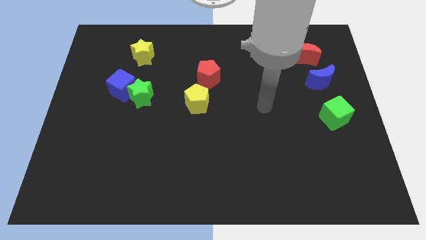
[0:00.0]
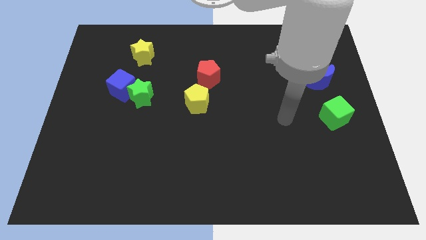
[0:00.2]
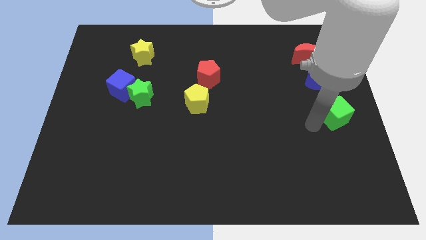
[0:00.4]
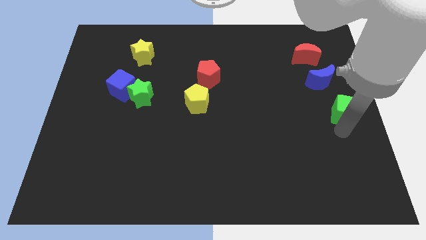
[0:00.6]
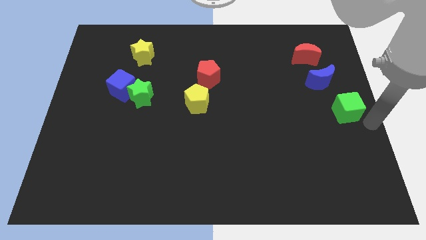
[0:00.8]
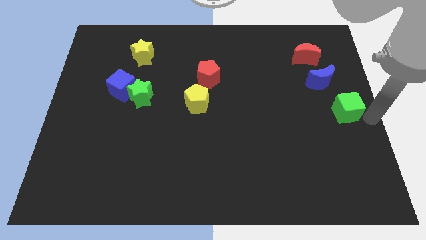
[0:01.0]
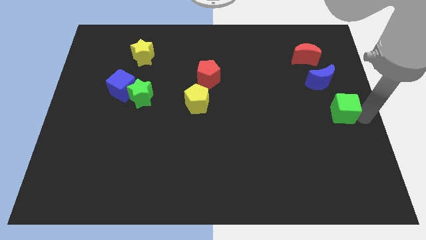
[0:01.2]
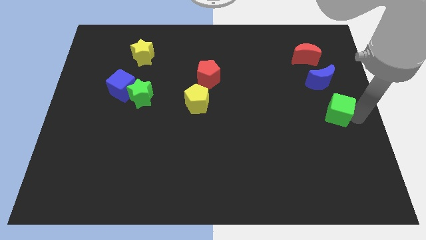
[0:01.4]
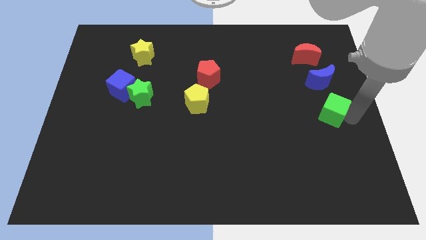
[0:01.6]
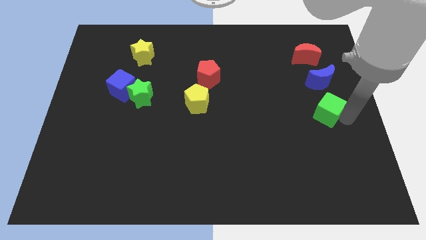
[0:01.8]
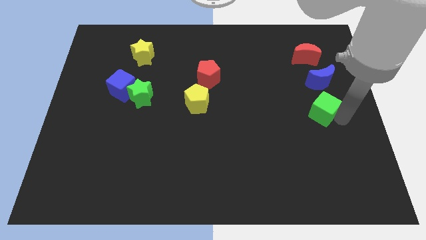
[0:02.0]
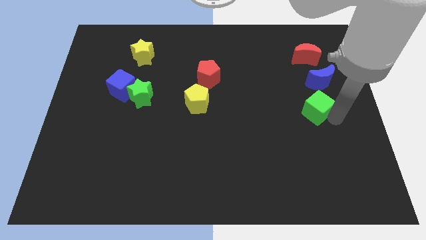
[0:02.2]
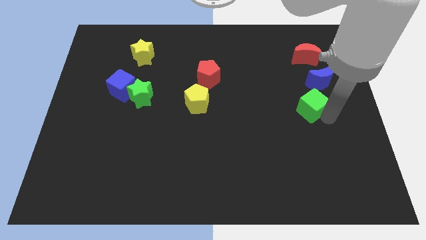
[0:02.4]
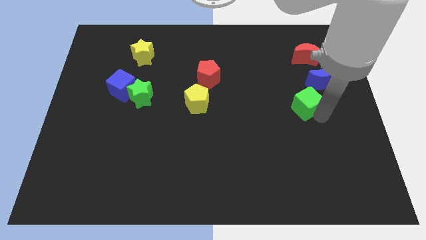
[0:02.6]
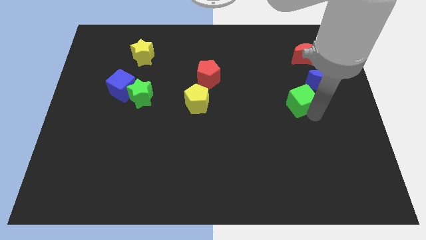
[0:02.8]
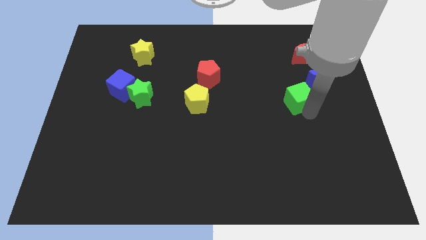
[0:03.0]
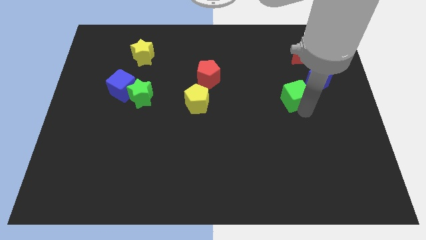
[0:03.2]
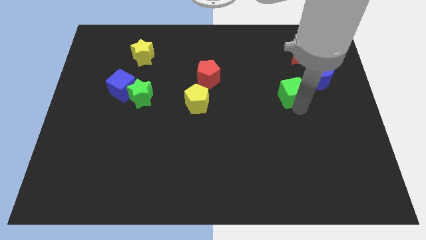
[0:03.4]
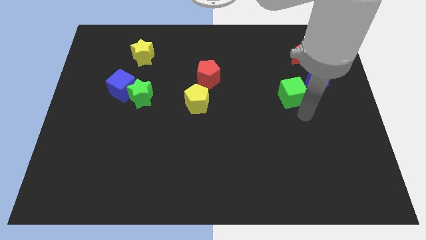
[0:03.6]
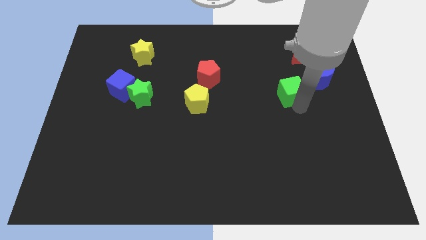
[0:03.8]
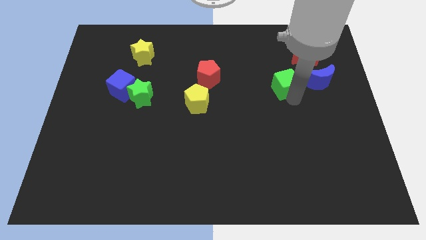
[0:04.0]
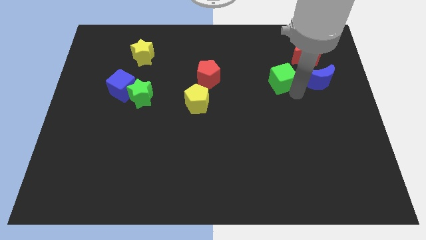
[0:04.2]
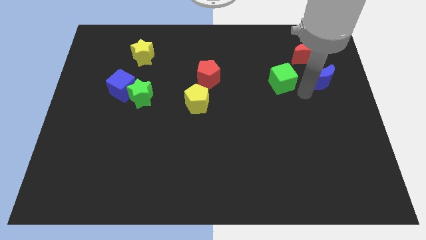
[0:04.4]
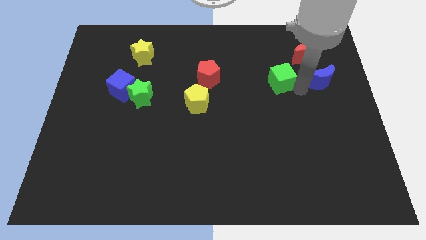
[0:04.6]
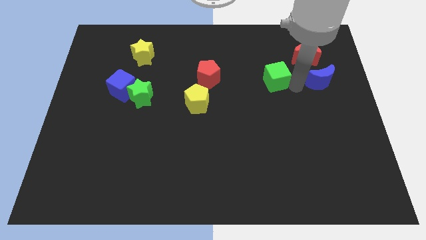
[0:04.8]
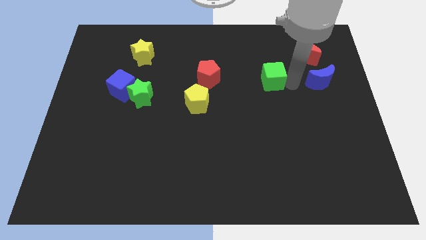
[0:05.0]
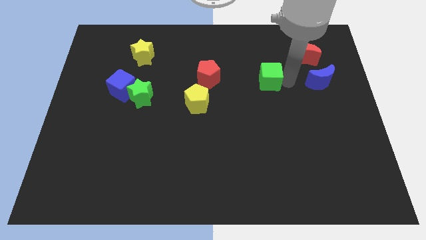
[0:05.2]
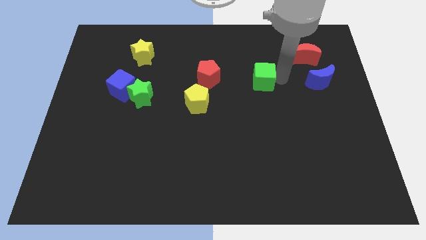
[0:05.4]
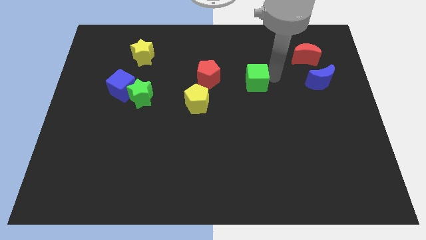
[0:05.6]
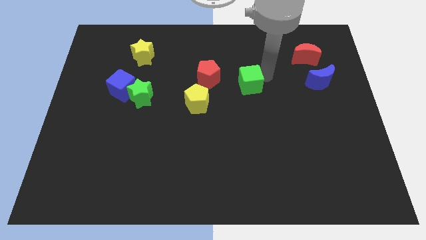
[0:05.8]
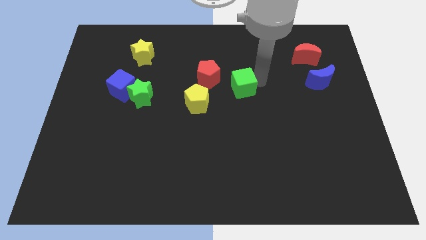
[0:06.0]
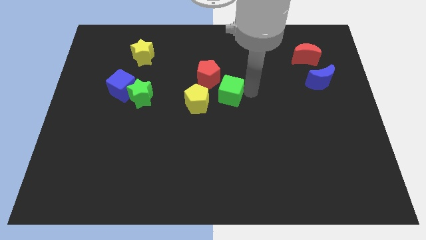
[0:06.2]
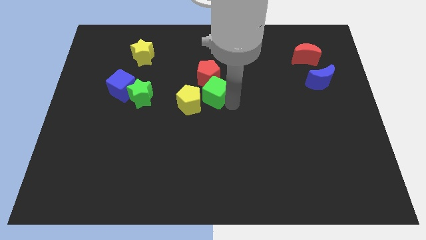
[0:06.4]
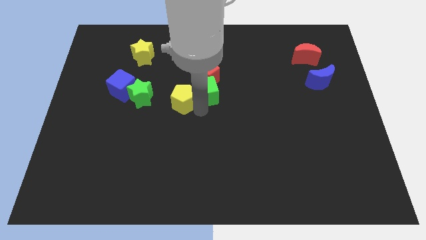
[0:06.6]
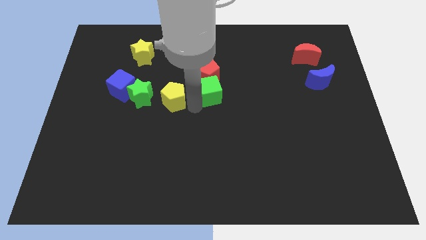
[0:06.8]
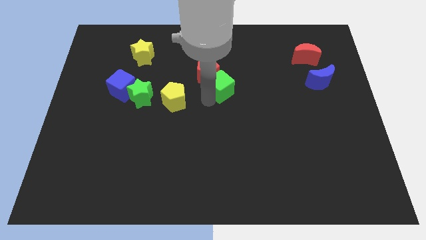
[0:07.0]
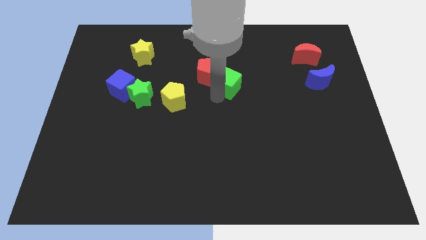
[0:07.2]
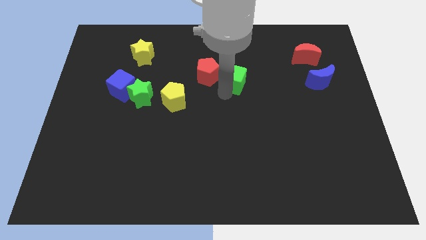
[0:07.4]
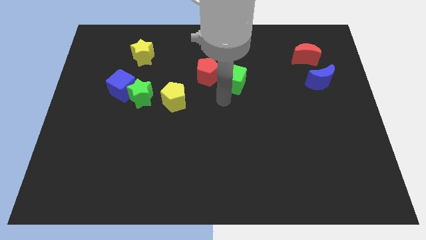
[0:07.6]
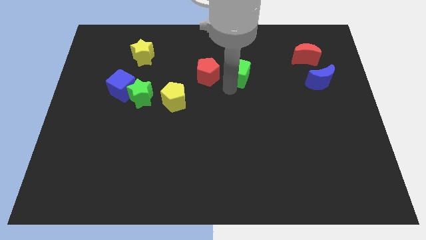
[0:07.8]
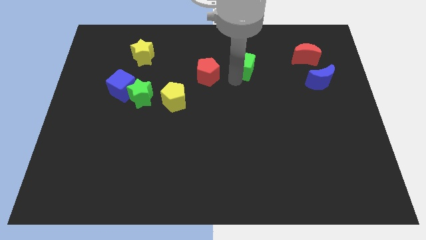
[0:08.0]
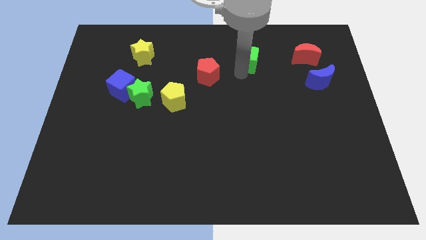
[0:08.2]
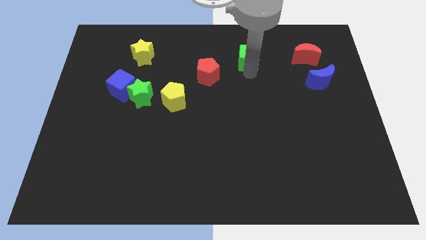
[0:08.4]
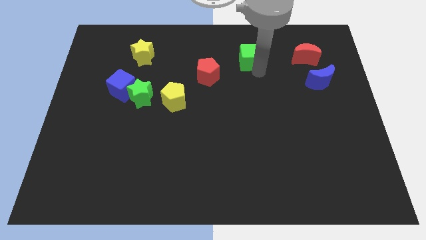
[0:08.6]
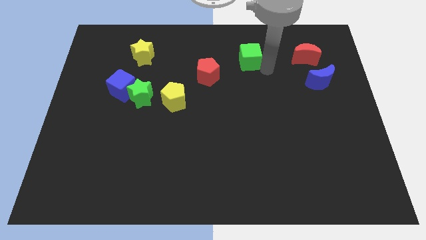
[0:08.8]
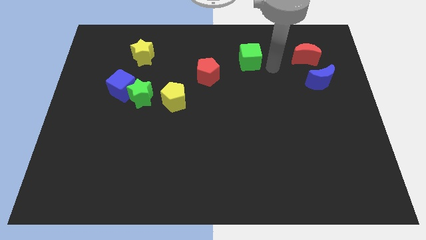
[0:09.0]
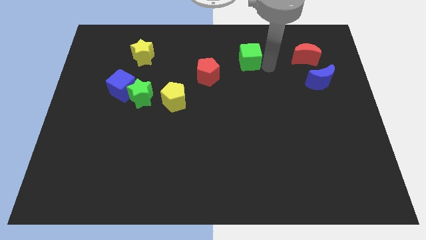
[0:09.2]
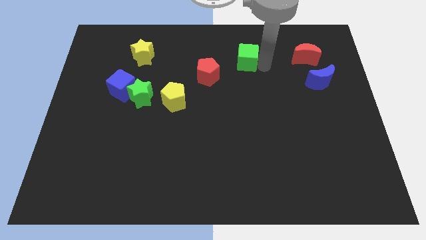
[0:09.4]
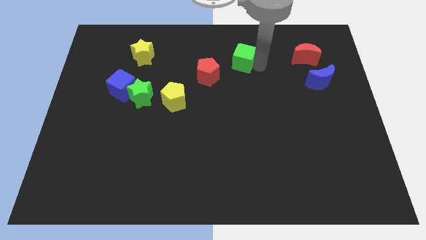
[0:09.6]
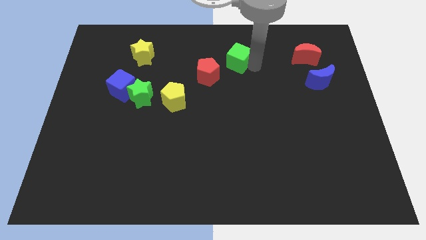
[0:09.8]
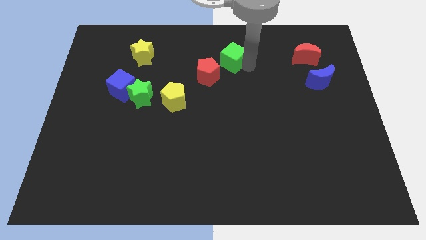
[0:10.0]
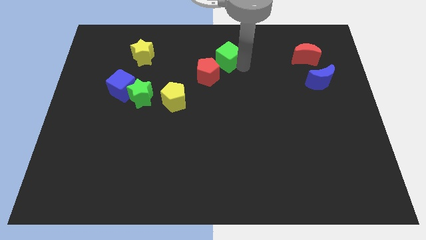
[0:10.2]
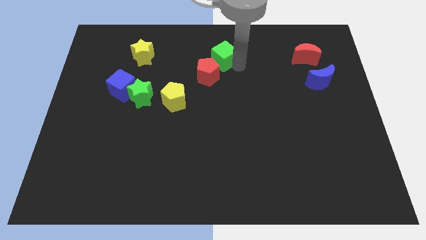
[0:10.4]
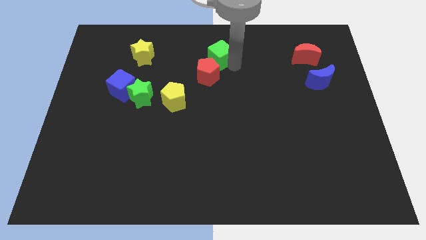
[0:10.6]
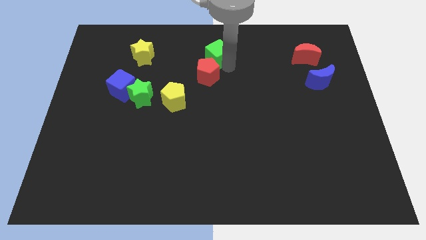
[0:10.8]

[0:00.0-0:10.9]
push the green cube to the towards your base
